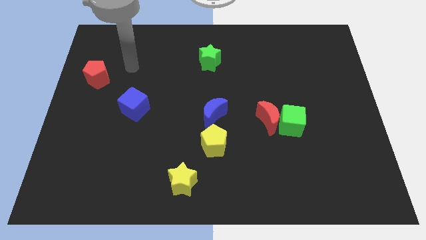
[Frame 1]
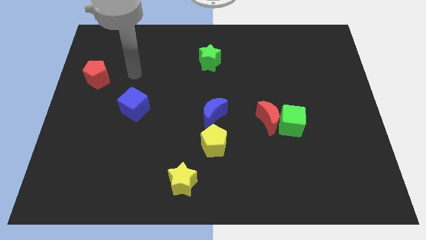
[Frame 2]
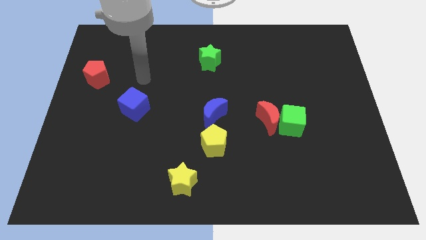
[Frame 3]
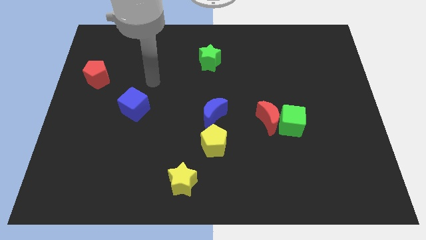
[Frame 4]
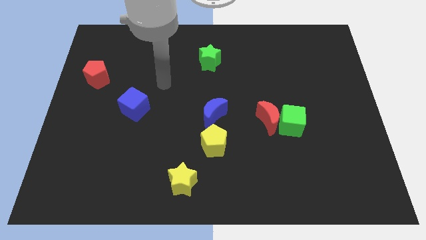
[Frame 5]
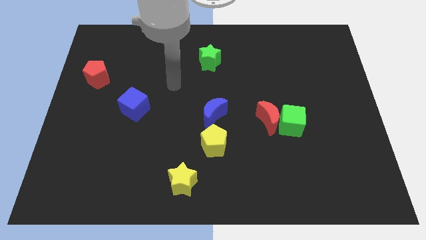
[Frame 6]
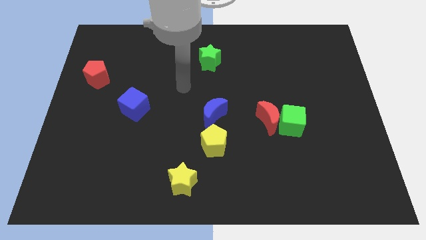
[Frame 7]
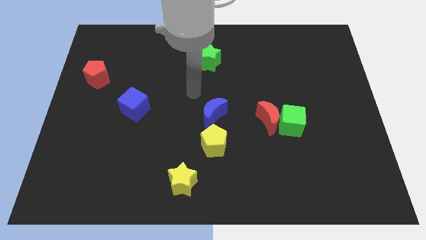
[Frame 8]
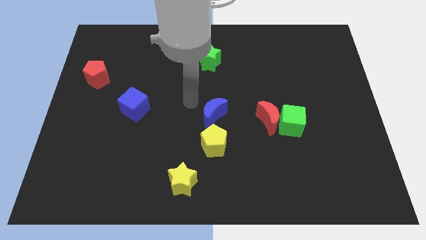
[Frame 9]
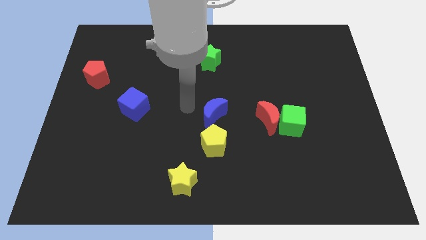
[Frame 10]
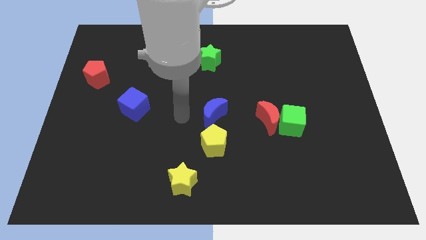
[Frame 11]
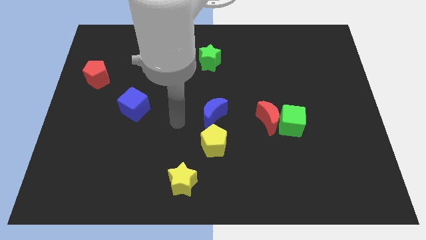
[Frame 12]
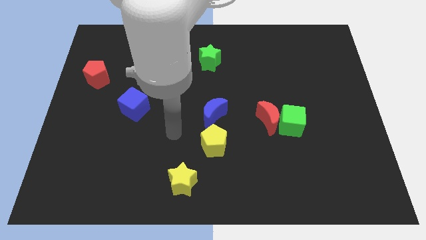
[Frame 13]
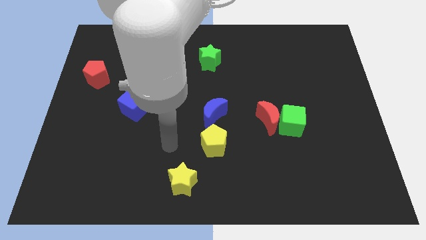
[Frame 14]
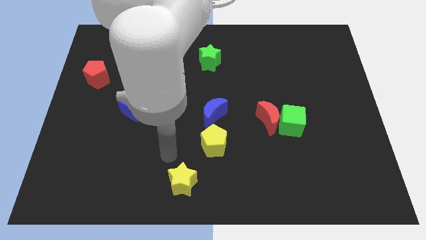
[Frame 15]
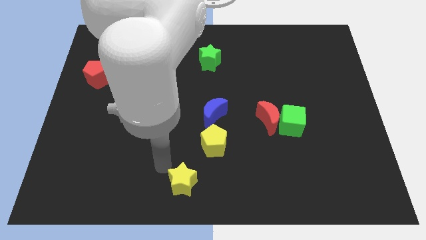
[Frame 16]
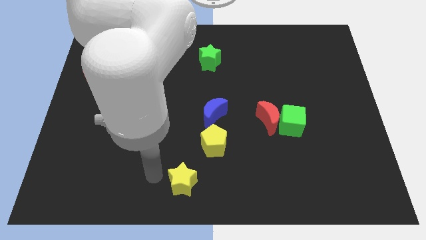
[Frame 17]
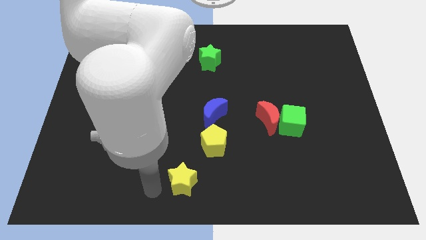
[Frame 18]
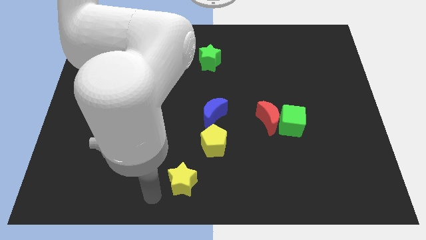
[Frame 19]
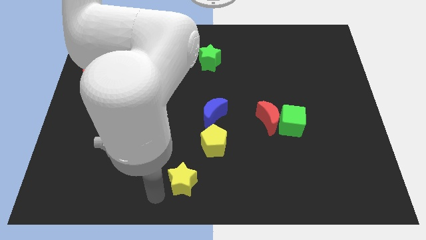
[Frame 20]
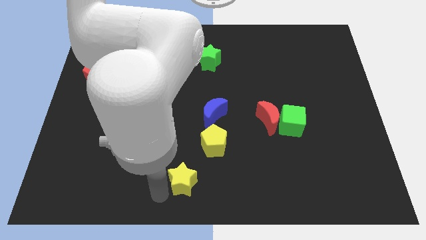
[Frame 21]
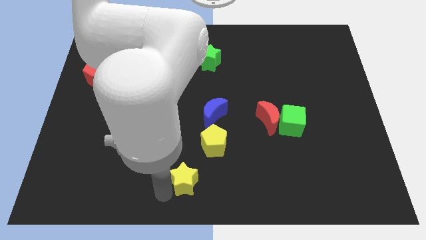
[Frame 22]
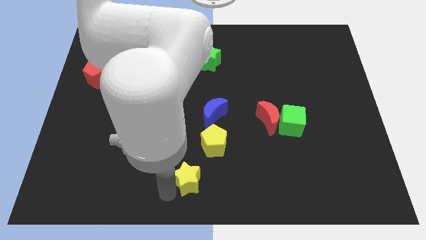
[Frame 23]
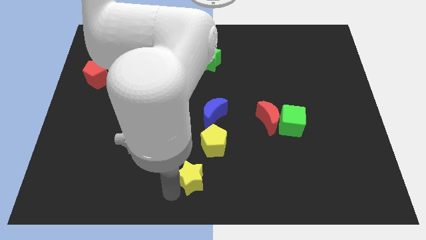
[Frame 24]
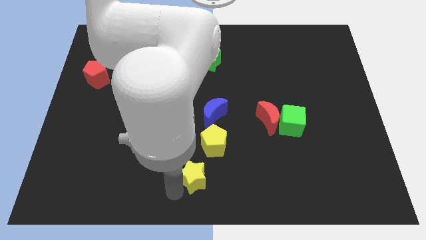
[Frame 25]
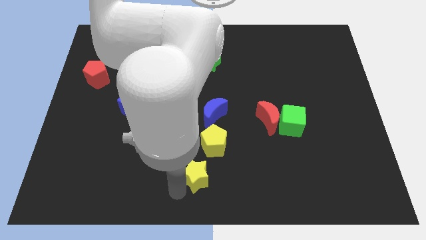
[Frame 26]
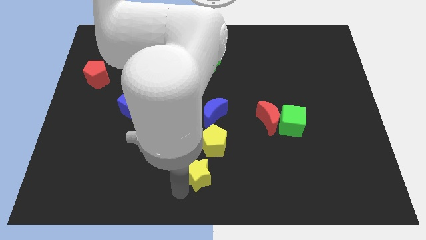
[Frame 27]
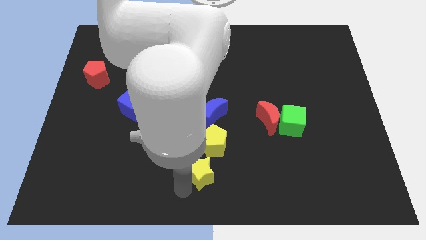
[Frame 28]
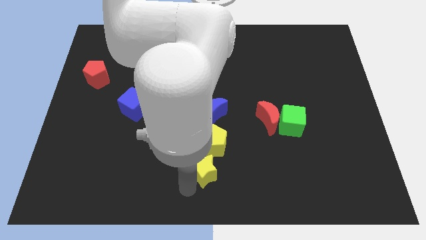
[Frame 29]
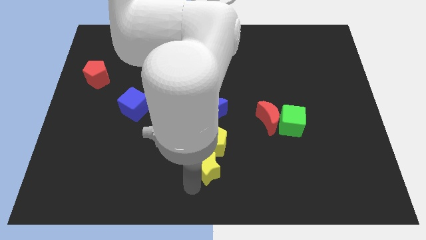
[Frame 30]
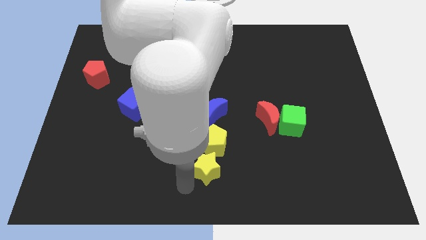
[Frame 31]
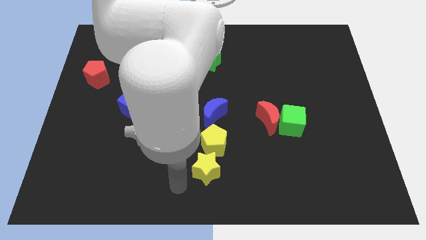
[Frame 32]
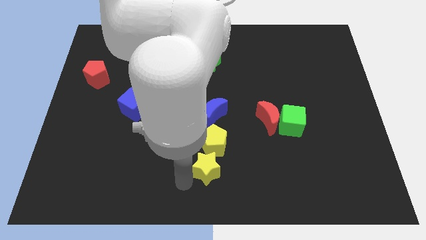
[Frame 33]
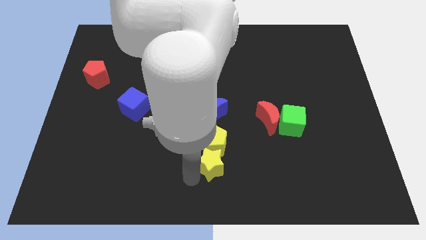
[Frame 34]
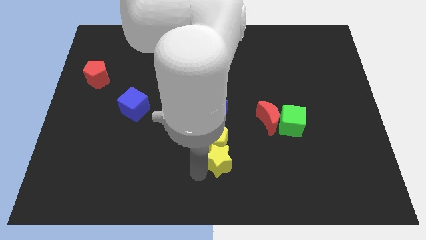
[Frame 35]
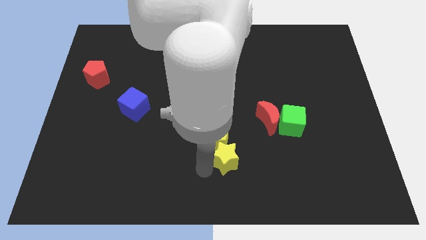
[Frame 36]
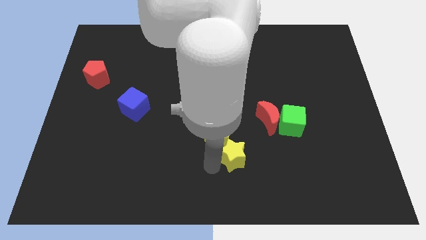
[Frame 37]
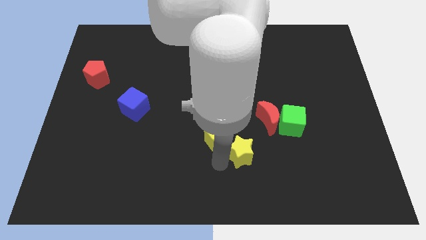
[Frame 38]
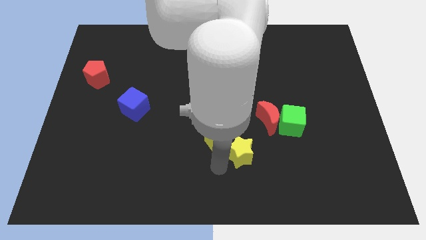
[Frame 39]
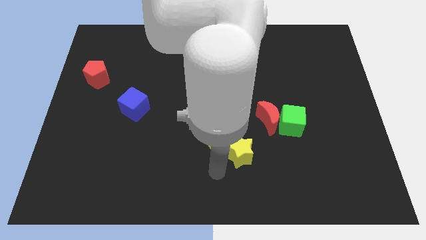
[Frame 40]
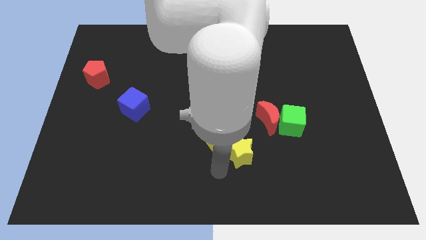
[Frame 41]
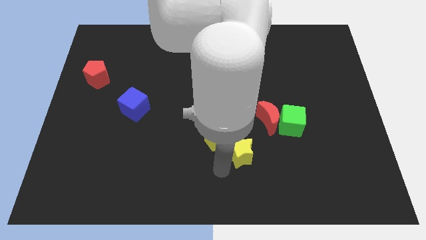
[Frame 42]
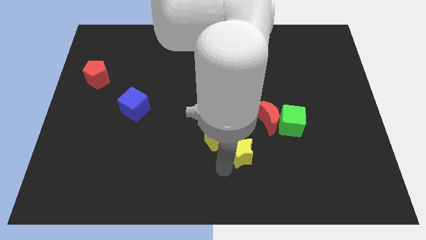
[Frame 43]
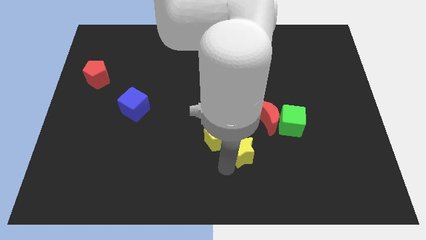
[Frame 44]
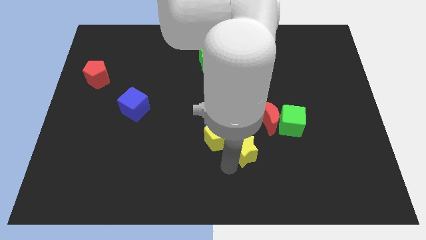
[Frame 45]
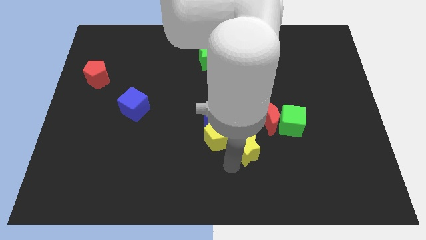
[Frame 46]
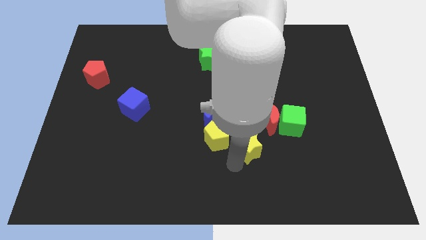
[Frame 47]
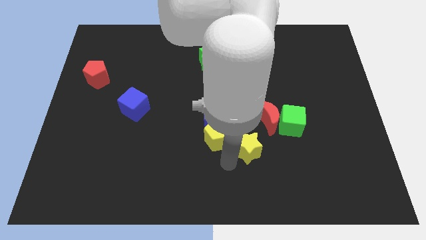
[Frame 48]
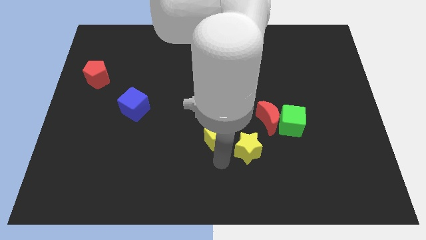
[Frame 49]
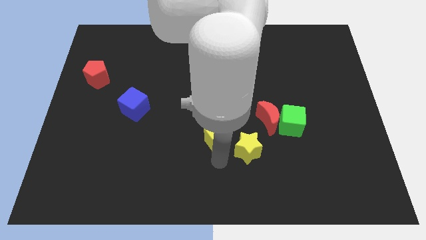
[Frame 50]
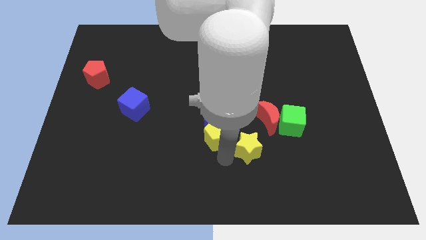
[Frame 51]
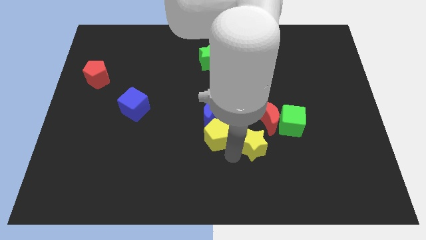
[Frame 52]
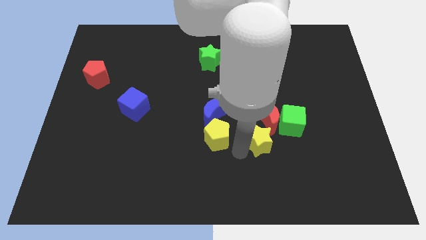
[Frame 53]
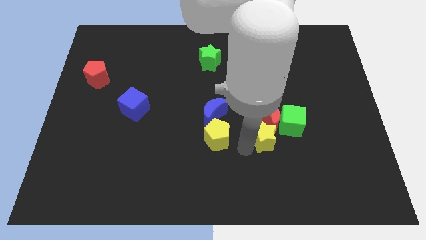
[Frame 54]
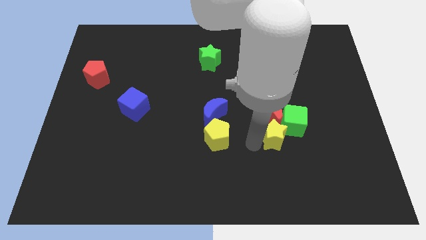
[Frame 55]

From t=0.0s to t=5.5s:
push the yellow star towards the green cube

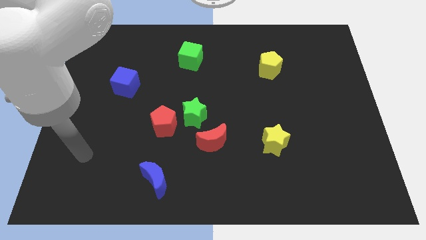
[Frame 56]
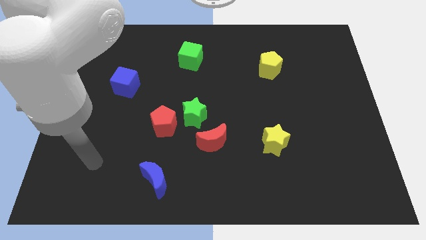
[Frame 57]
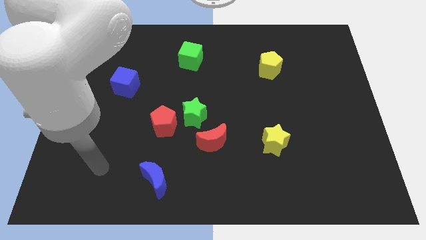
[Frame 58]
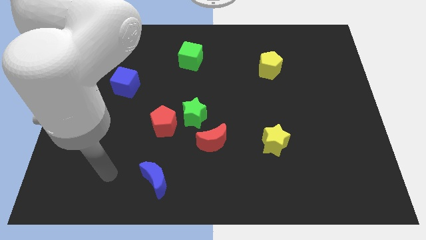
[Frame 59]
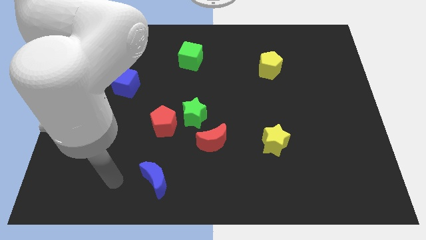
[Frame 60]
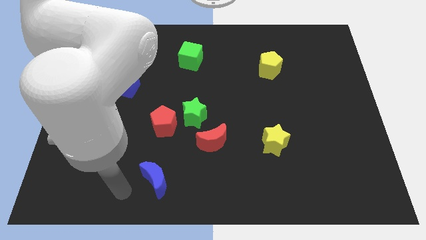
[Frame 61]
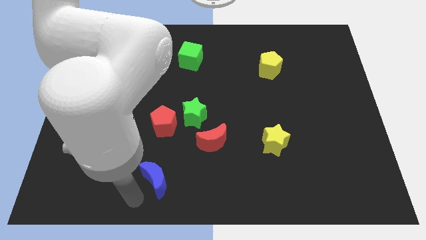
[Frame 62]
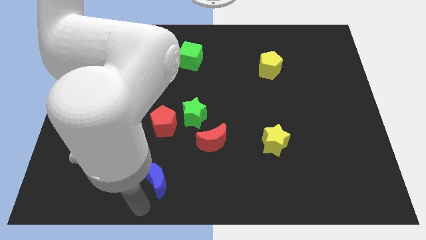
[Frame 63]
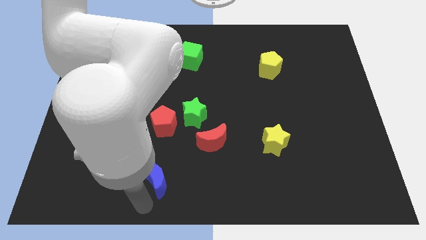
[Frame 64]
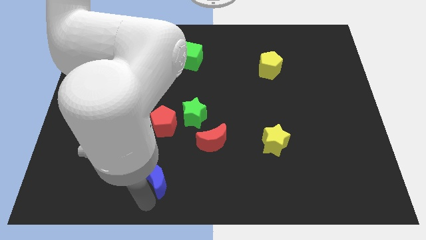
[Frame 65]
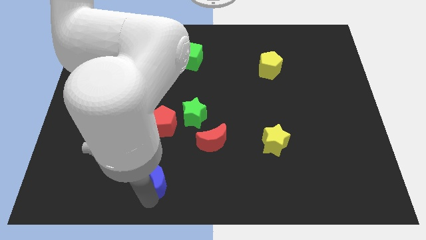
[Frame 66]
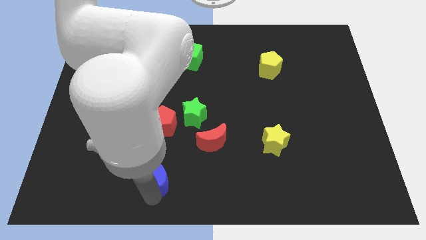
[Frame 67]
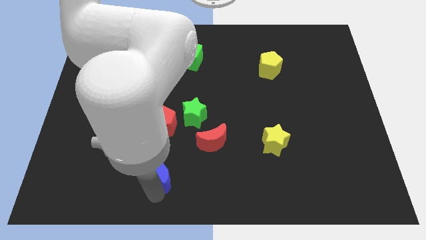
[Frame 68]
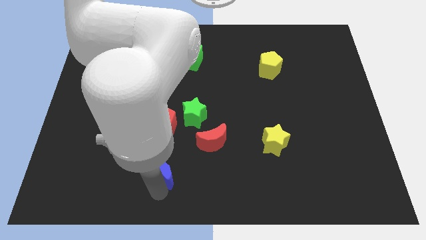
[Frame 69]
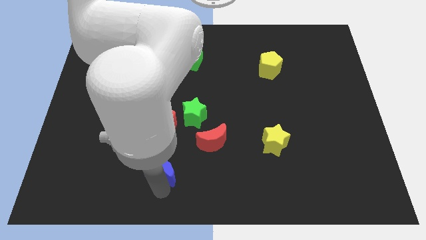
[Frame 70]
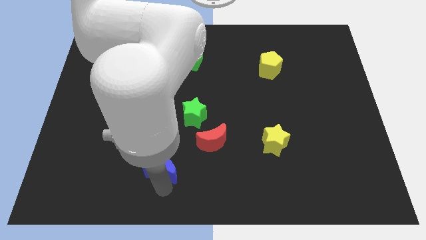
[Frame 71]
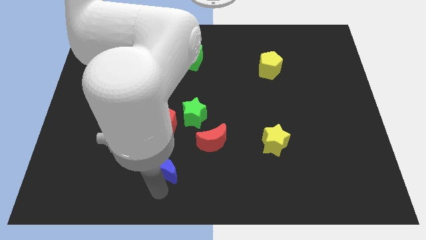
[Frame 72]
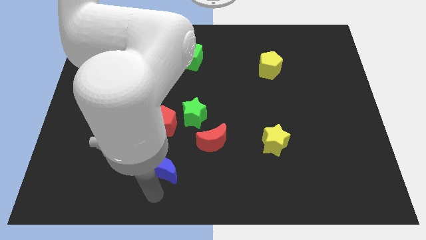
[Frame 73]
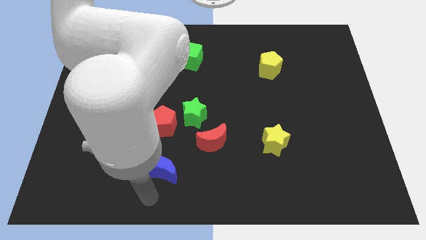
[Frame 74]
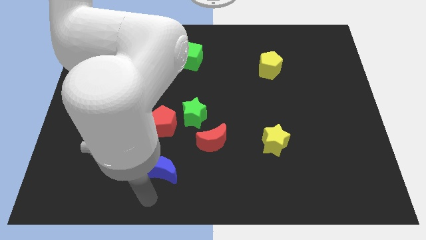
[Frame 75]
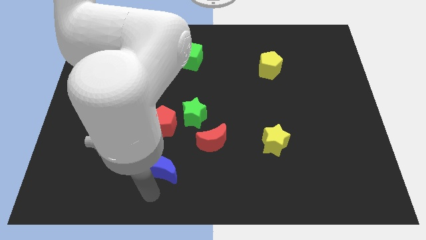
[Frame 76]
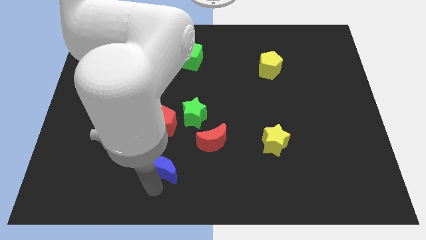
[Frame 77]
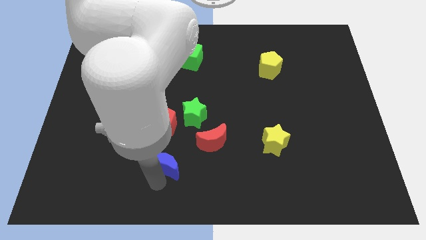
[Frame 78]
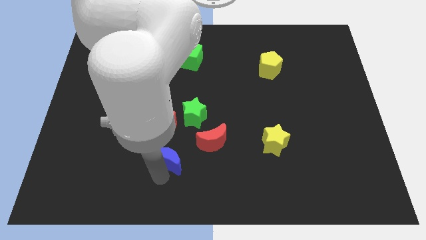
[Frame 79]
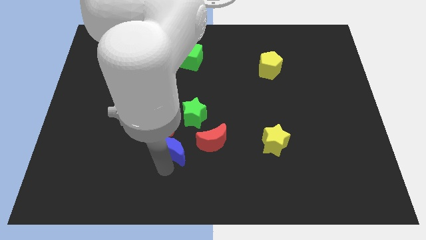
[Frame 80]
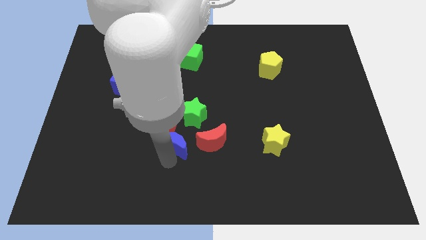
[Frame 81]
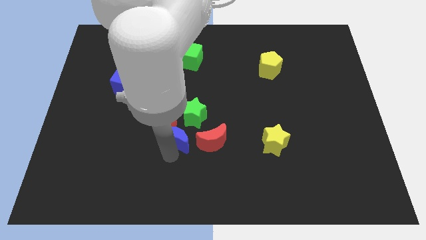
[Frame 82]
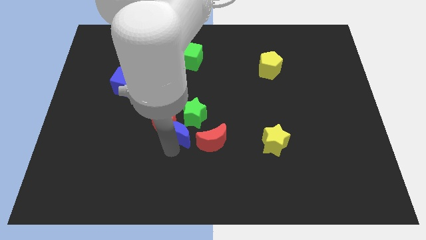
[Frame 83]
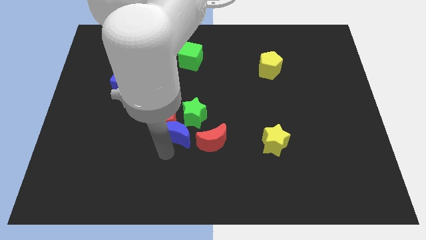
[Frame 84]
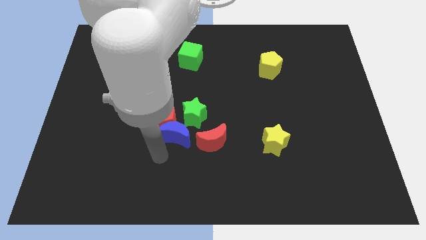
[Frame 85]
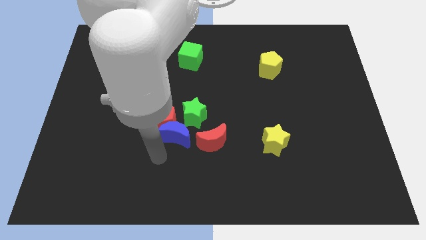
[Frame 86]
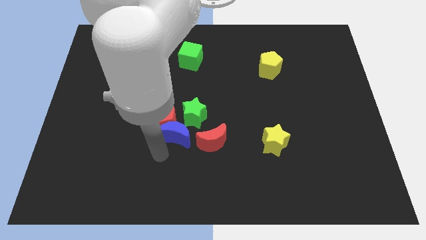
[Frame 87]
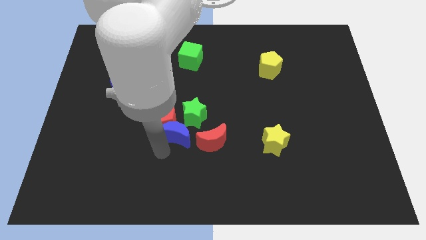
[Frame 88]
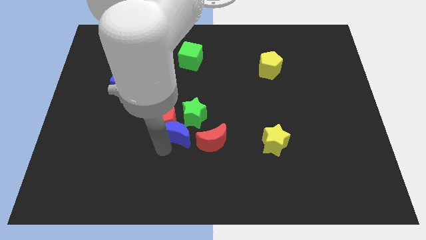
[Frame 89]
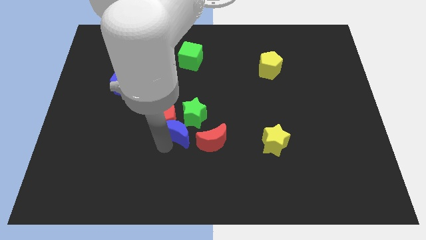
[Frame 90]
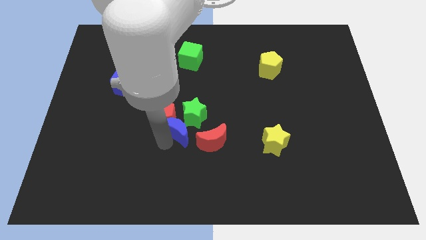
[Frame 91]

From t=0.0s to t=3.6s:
put the blue moon towards the green star
